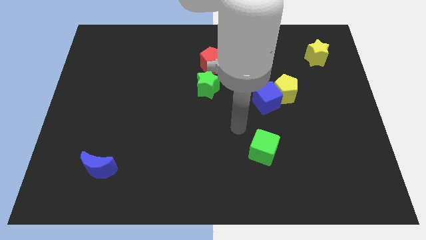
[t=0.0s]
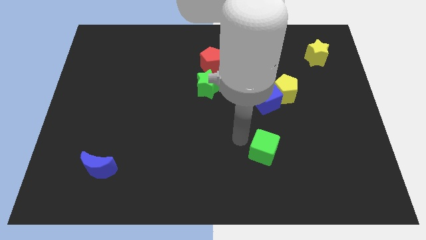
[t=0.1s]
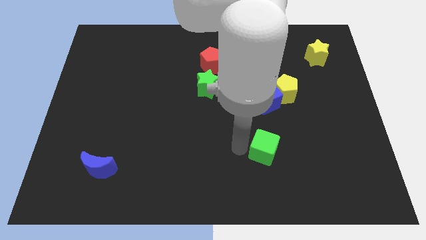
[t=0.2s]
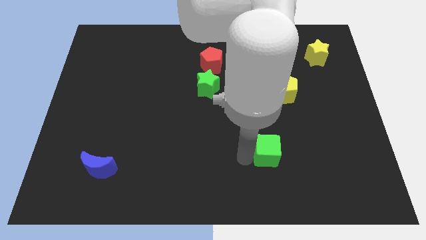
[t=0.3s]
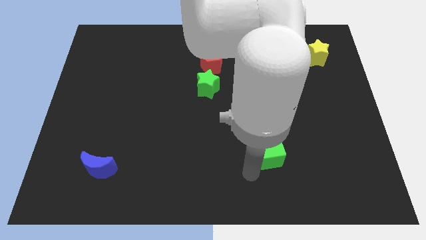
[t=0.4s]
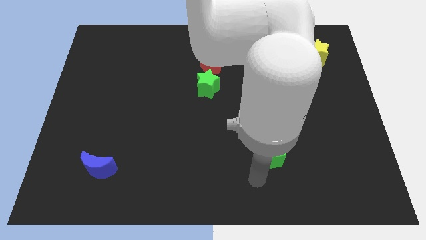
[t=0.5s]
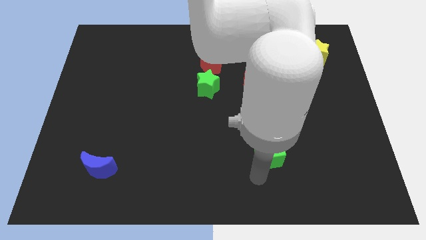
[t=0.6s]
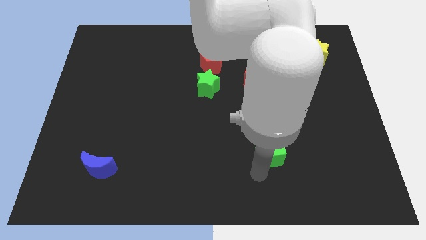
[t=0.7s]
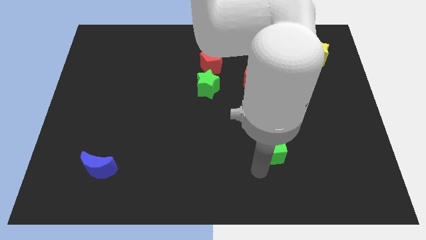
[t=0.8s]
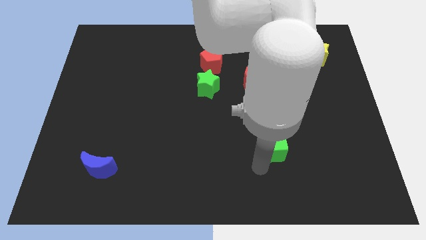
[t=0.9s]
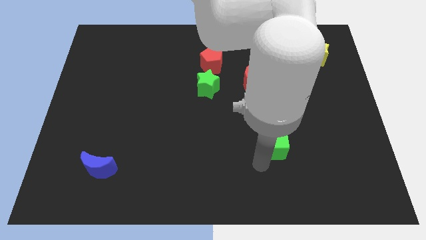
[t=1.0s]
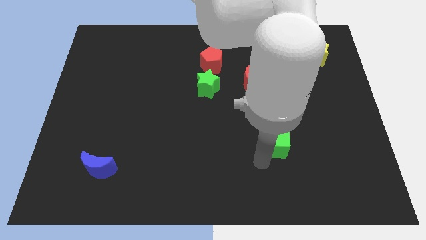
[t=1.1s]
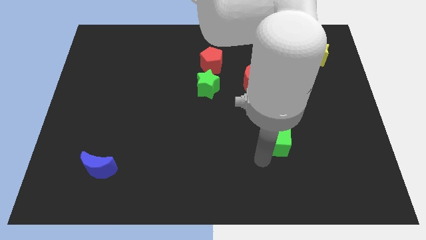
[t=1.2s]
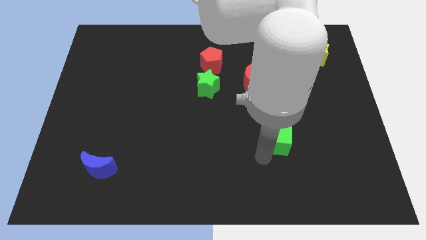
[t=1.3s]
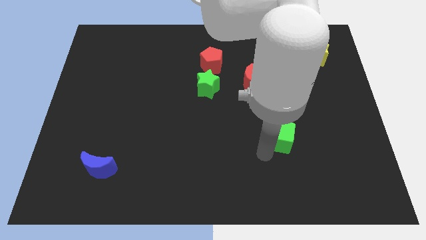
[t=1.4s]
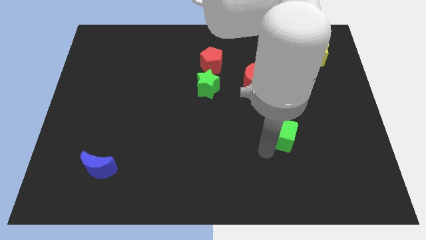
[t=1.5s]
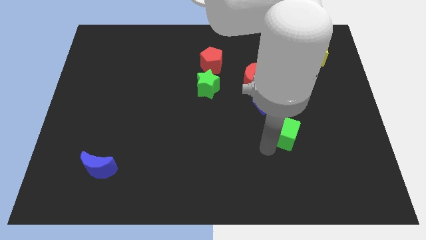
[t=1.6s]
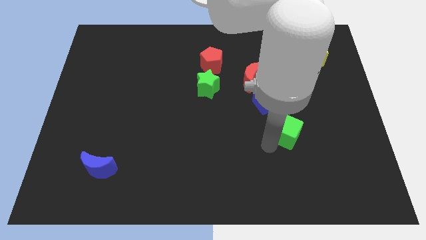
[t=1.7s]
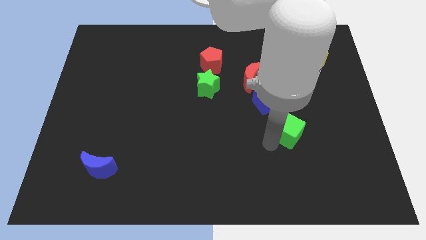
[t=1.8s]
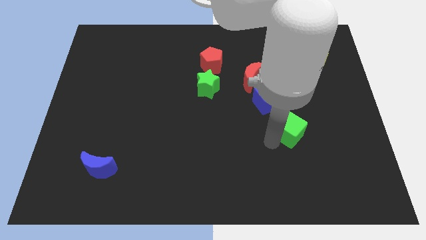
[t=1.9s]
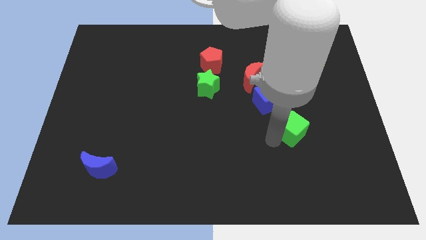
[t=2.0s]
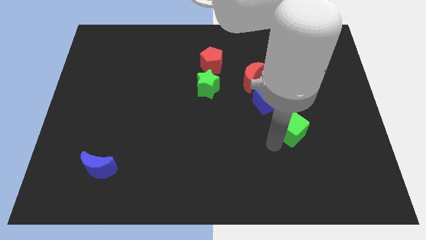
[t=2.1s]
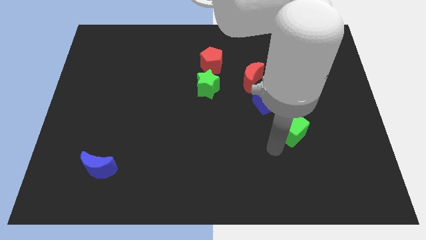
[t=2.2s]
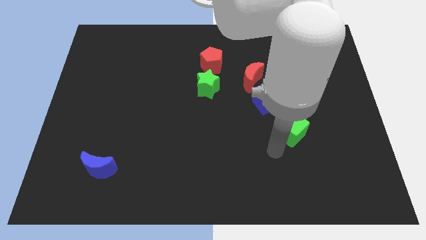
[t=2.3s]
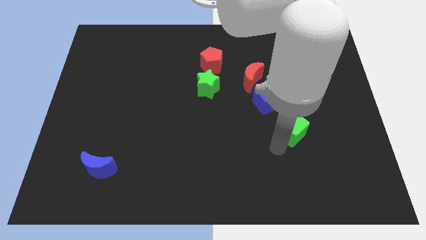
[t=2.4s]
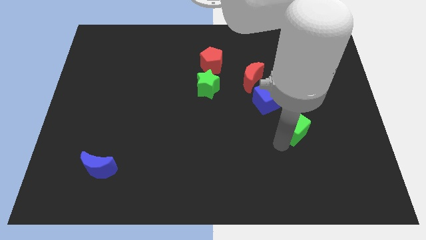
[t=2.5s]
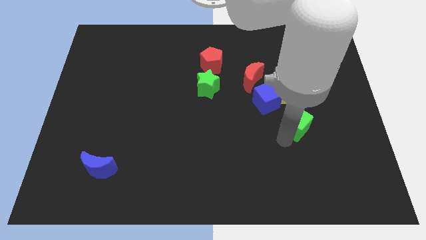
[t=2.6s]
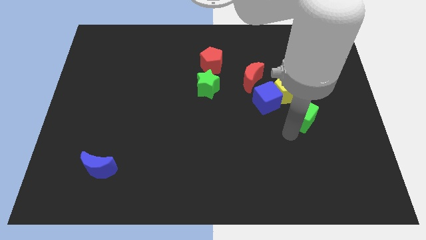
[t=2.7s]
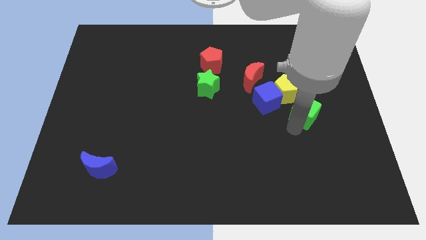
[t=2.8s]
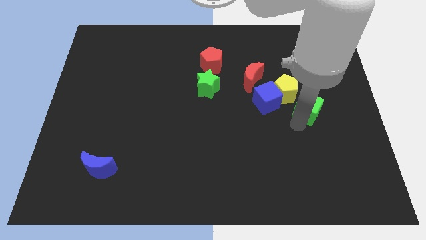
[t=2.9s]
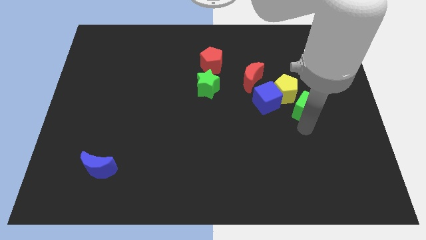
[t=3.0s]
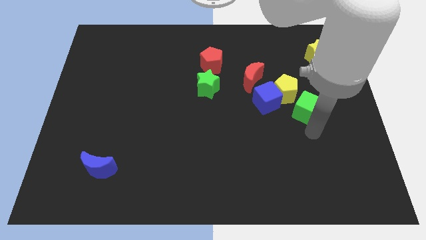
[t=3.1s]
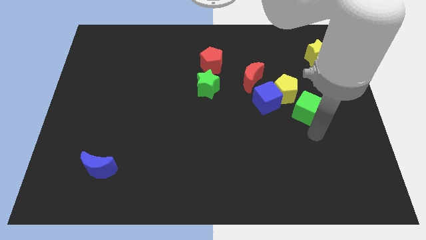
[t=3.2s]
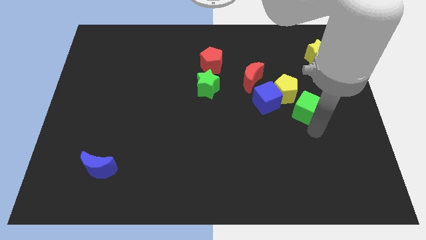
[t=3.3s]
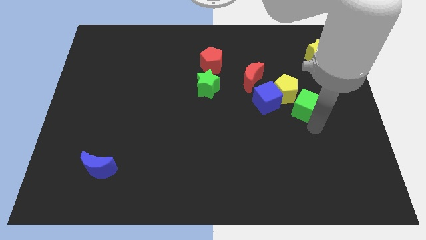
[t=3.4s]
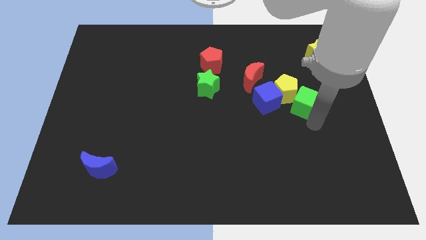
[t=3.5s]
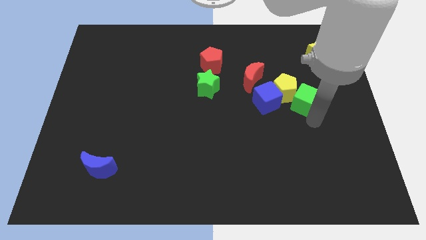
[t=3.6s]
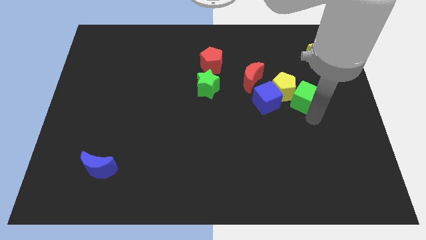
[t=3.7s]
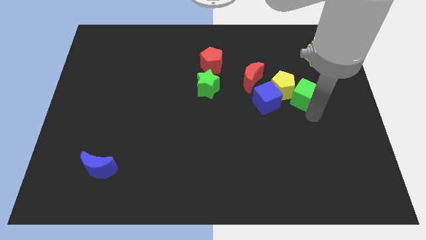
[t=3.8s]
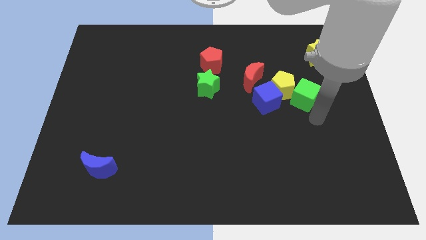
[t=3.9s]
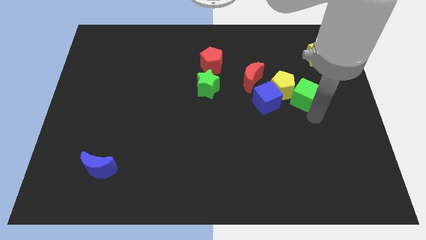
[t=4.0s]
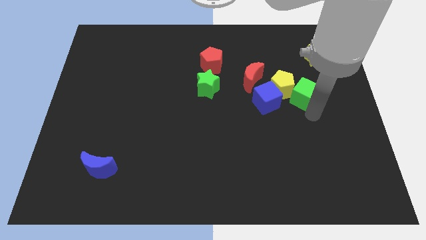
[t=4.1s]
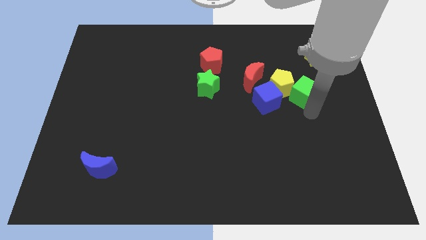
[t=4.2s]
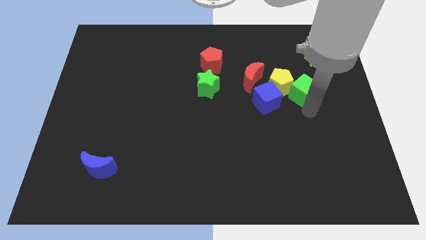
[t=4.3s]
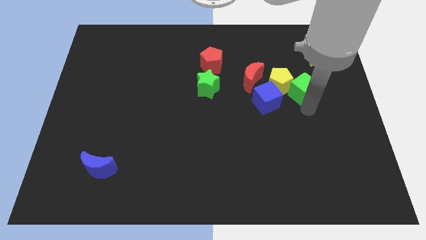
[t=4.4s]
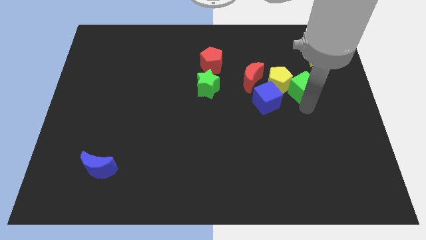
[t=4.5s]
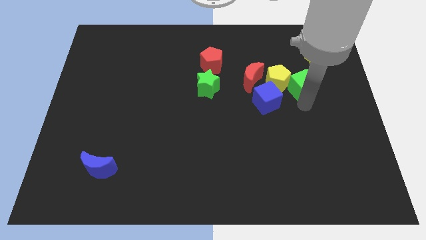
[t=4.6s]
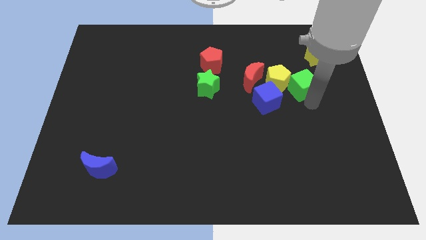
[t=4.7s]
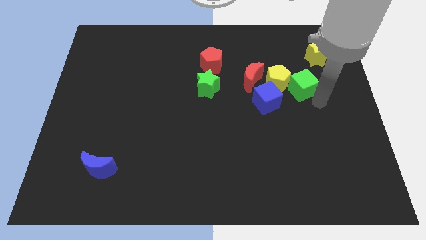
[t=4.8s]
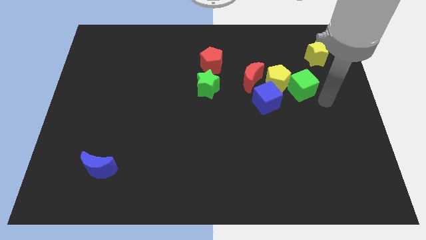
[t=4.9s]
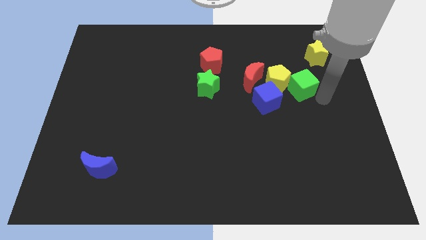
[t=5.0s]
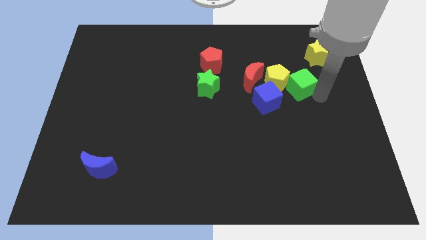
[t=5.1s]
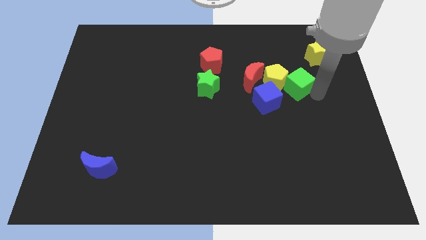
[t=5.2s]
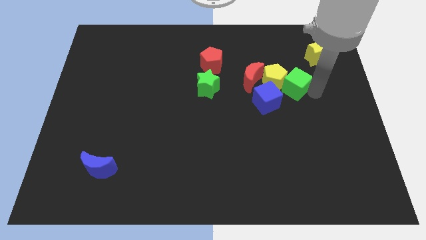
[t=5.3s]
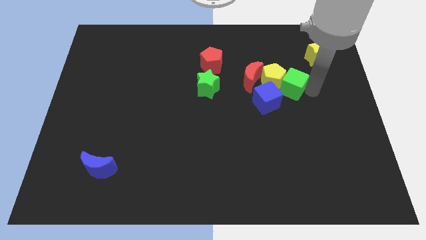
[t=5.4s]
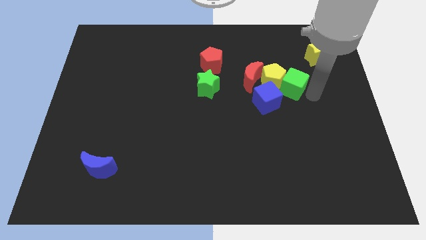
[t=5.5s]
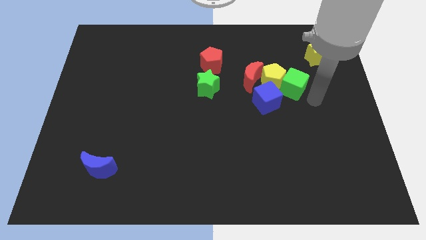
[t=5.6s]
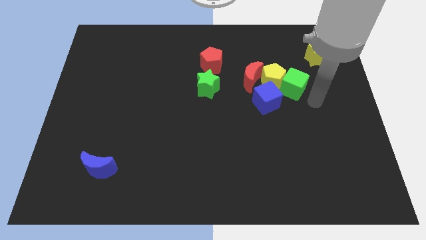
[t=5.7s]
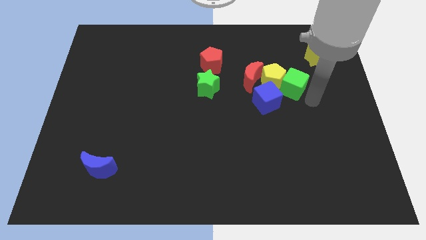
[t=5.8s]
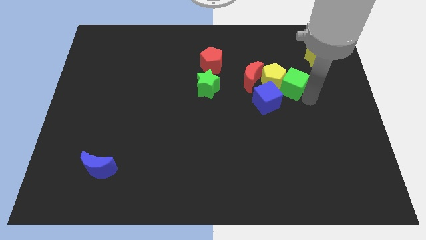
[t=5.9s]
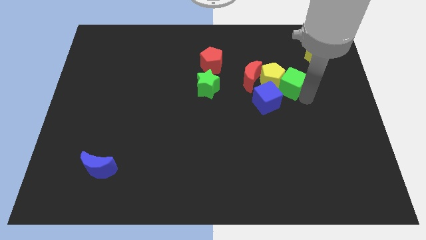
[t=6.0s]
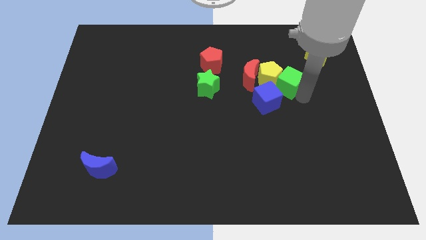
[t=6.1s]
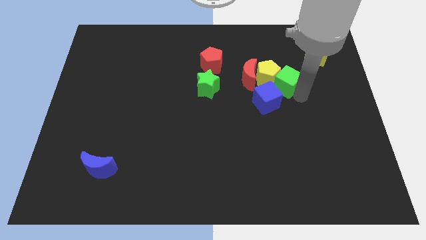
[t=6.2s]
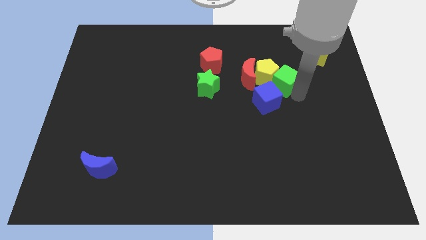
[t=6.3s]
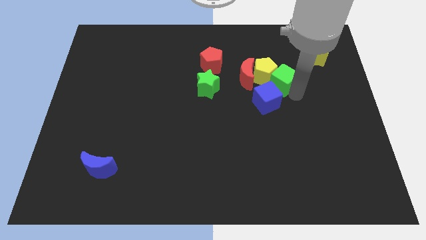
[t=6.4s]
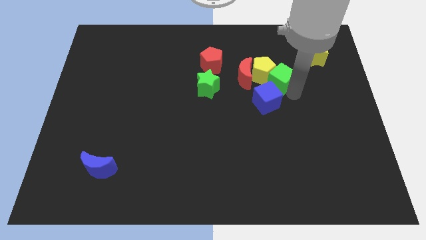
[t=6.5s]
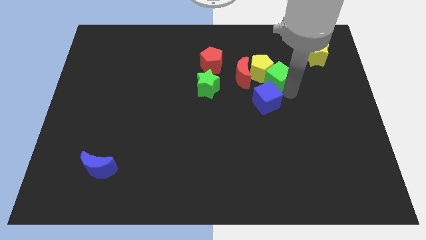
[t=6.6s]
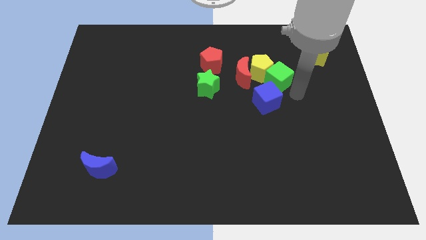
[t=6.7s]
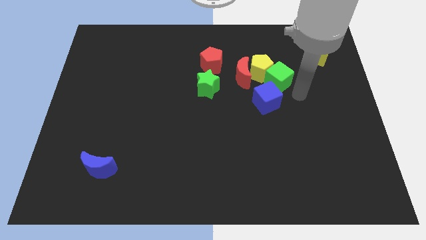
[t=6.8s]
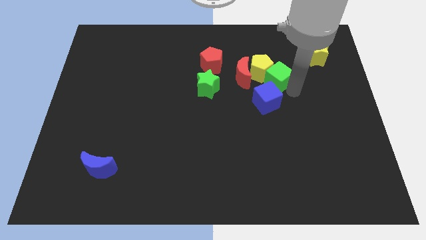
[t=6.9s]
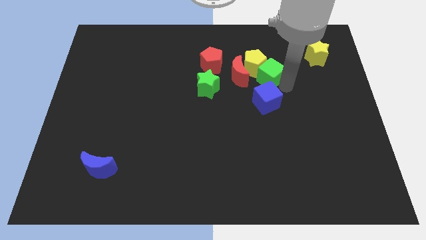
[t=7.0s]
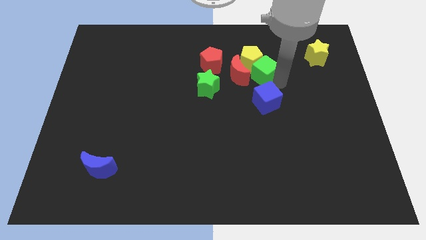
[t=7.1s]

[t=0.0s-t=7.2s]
put the green cube right of the red pentagon
